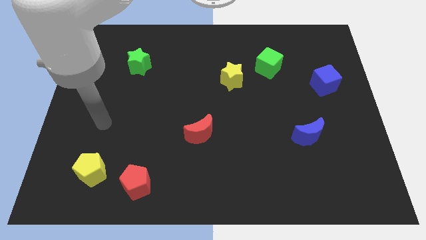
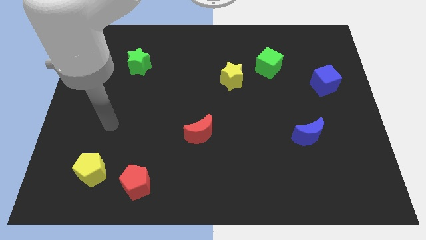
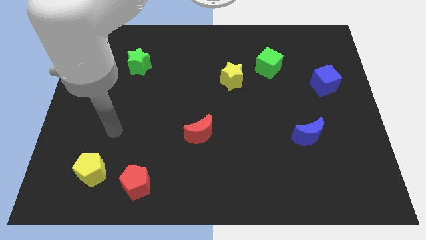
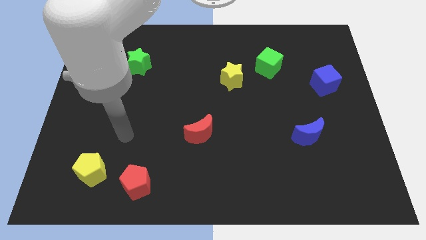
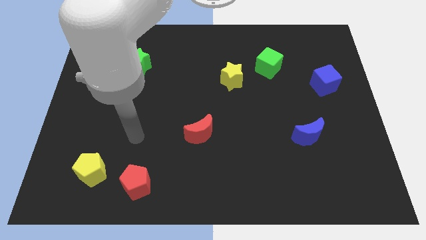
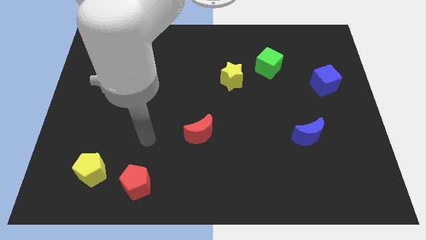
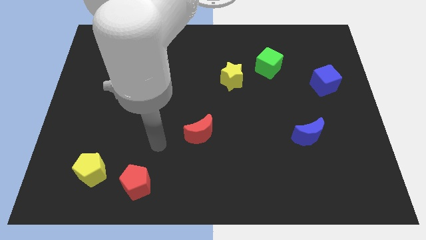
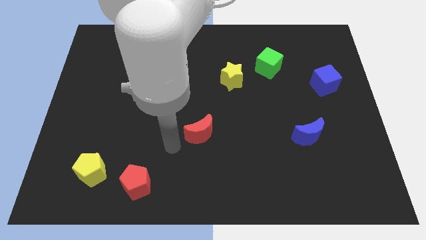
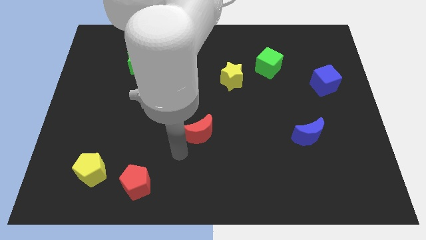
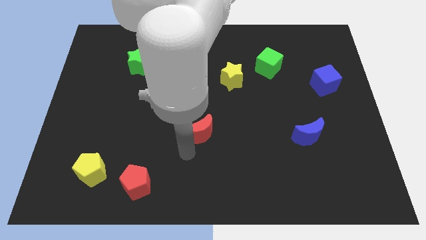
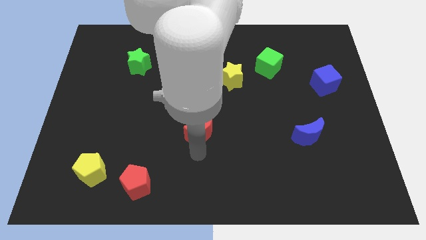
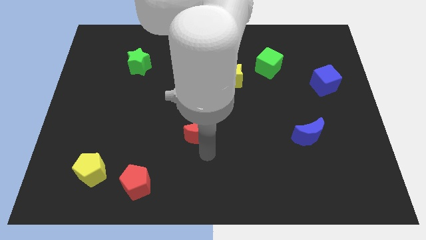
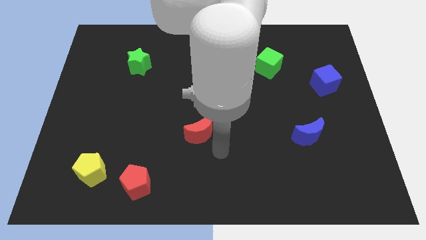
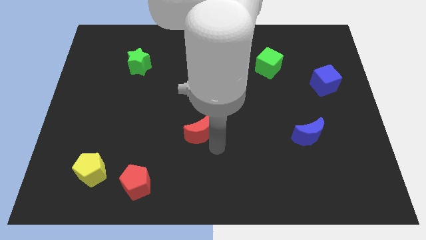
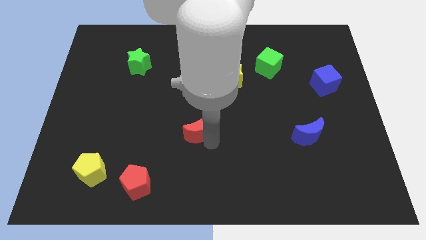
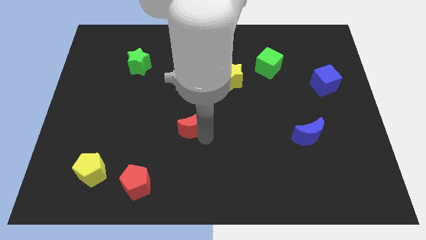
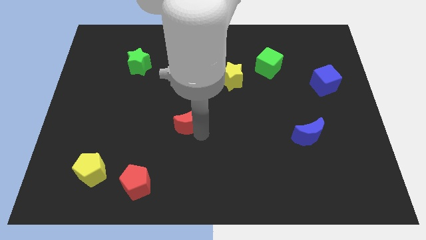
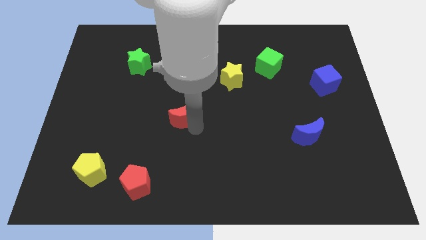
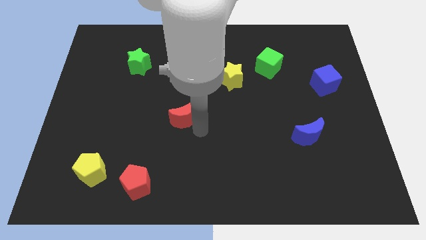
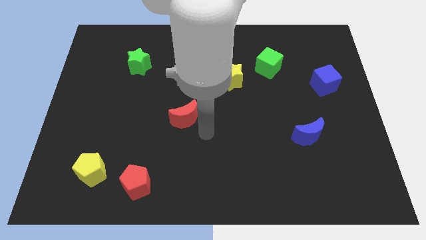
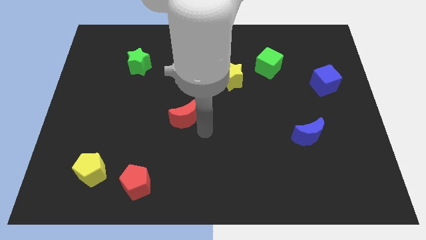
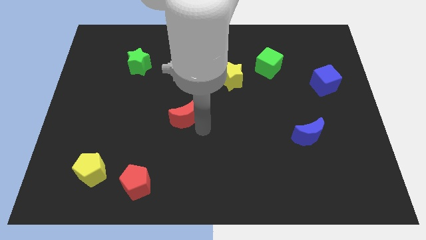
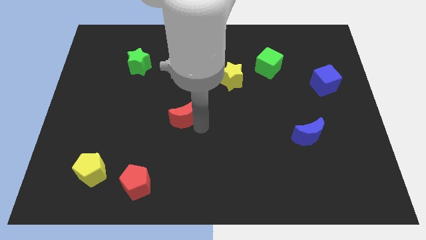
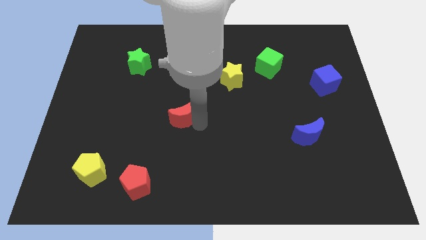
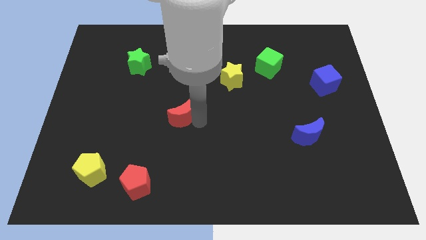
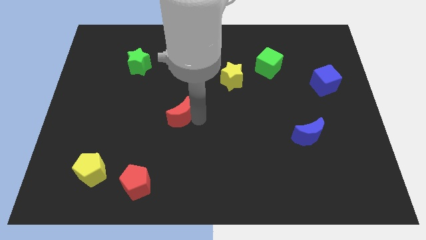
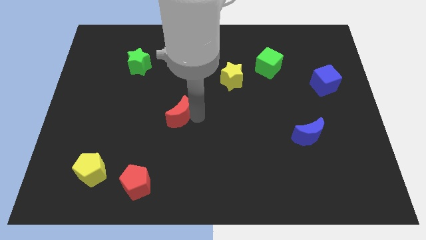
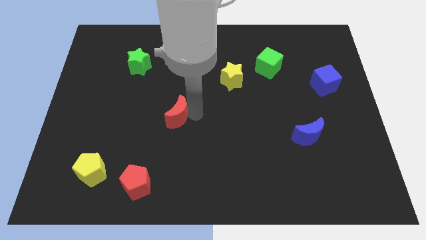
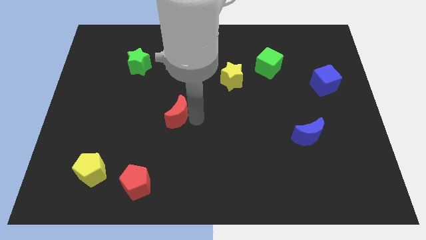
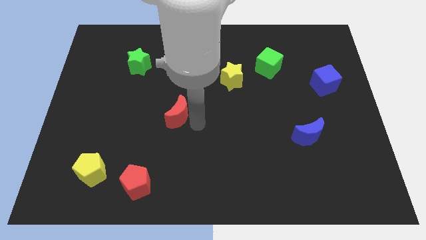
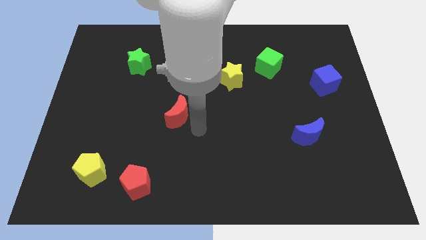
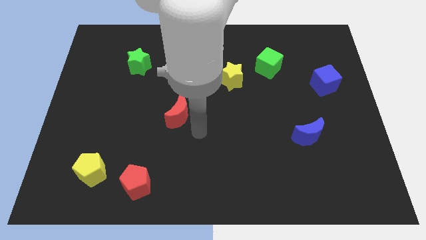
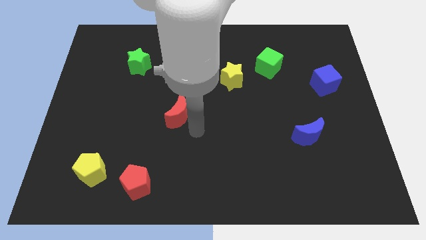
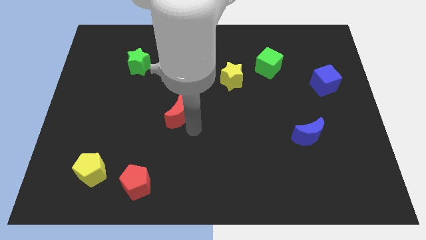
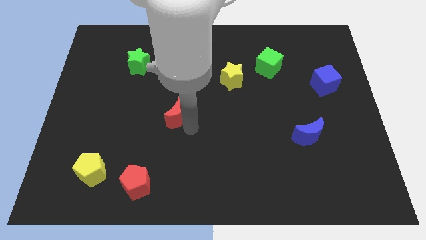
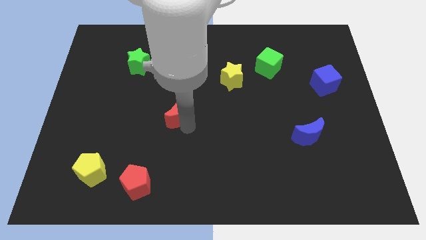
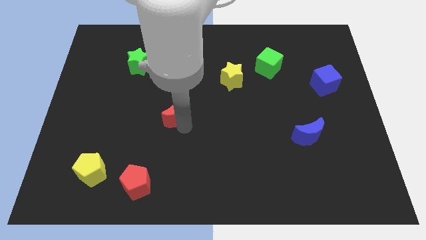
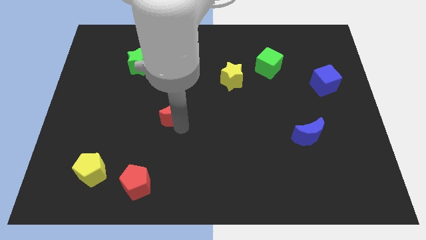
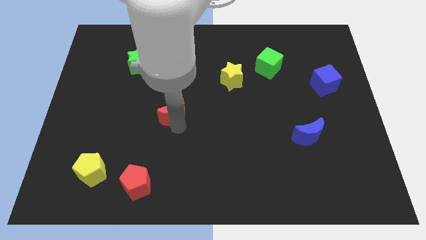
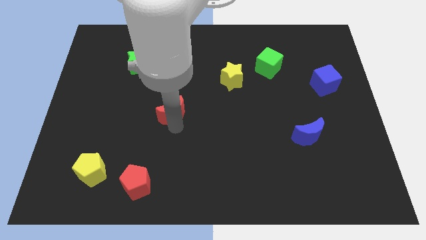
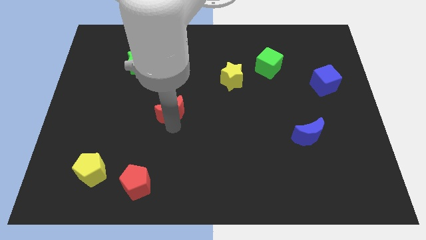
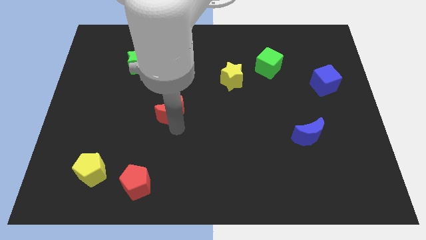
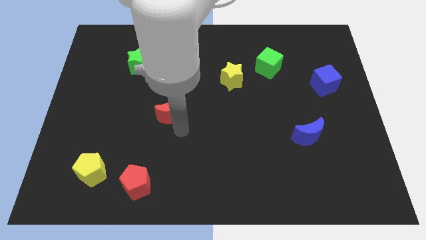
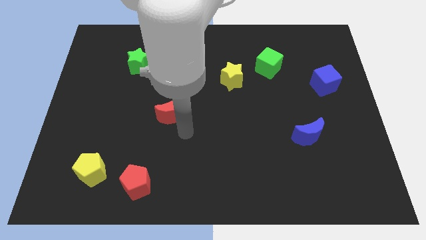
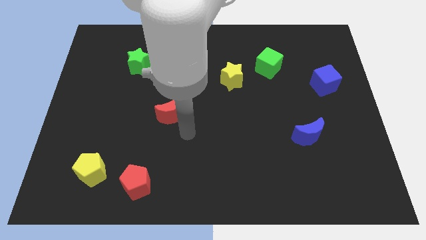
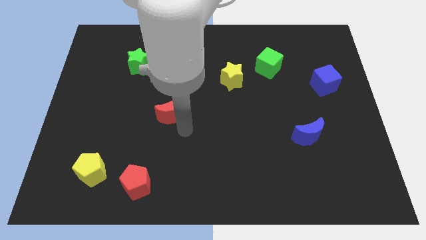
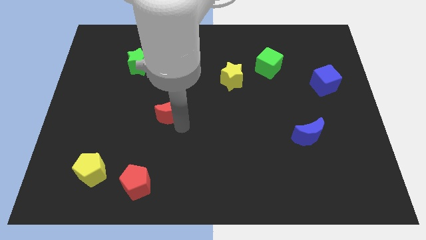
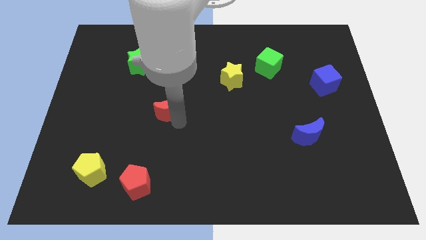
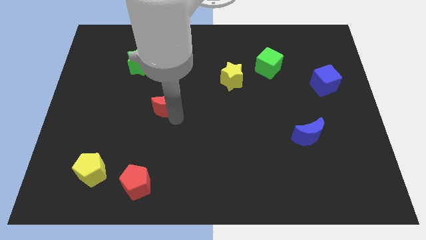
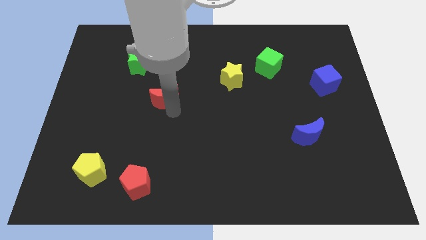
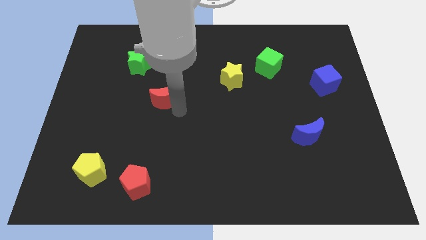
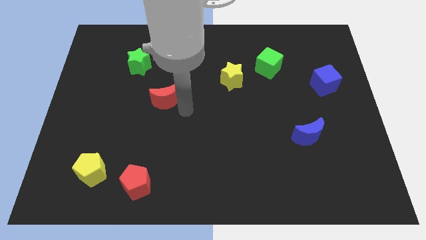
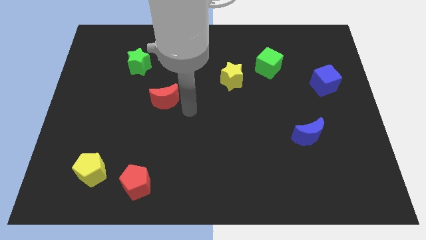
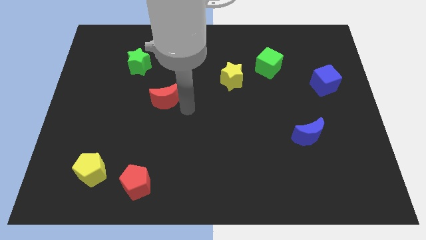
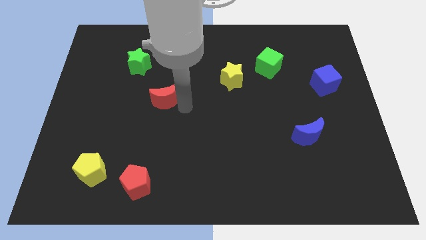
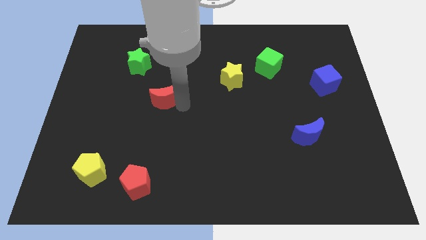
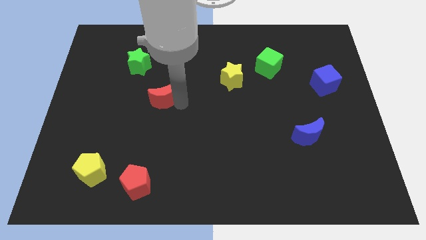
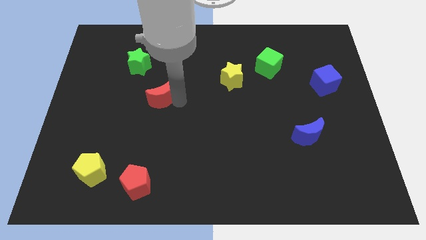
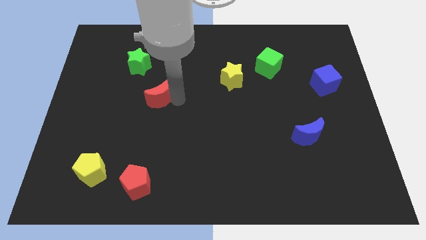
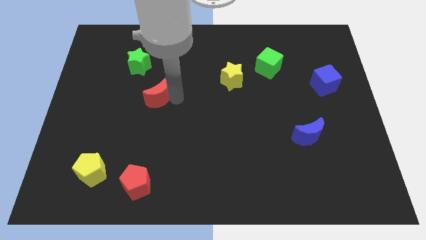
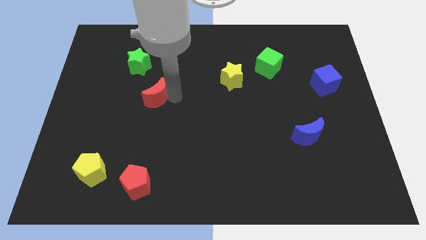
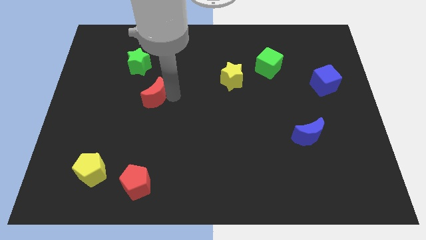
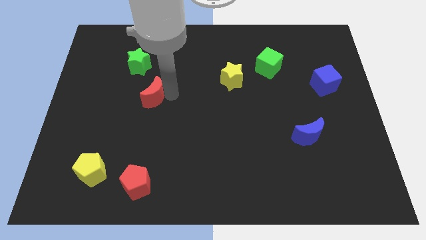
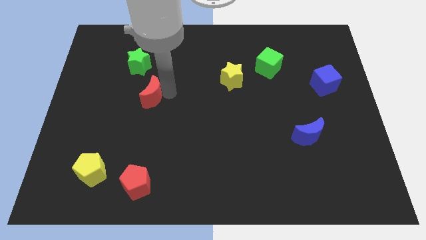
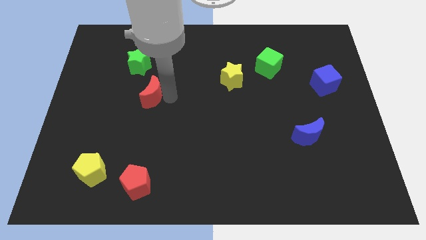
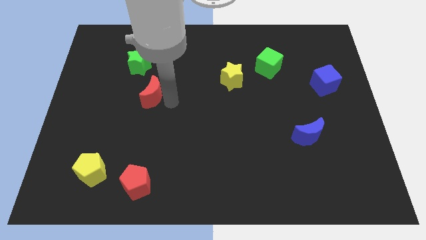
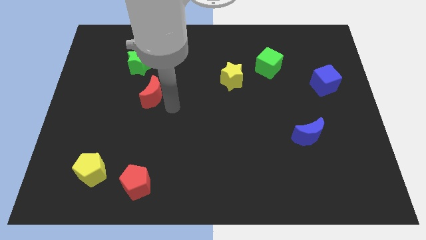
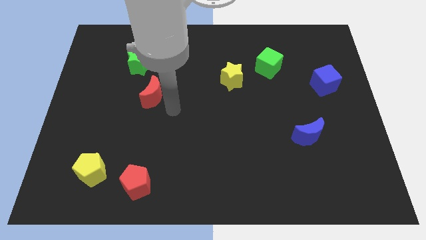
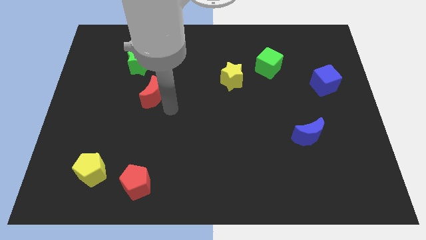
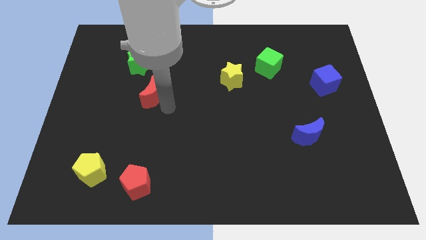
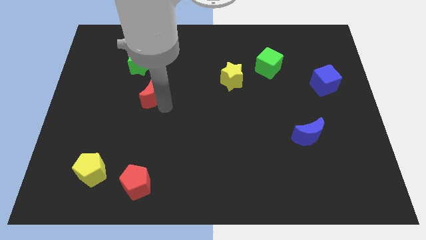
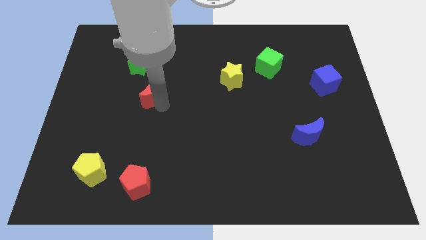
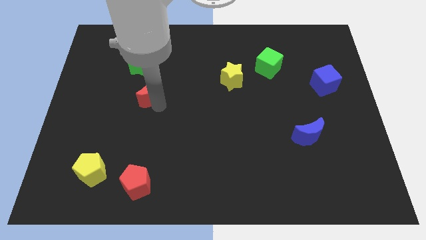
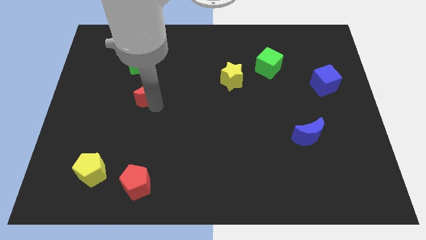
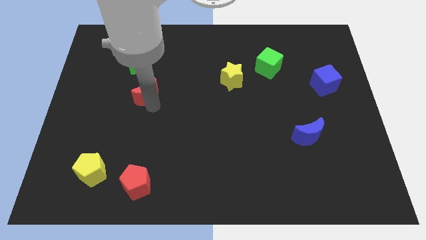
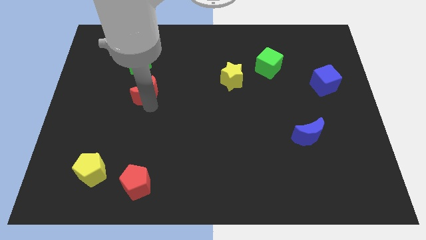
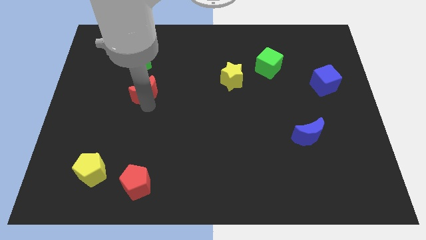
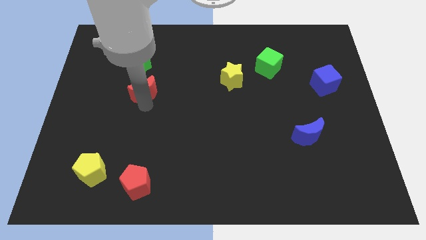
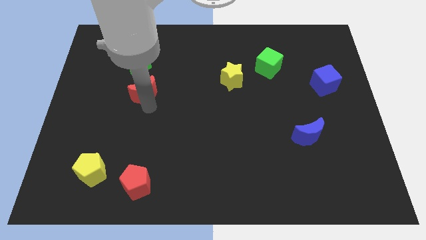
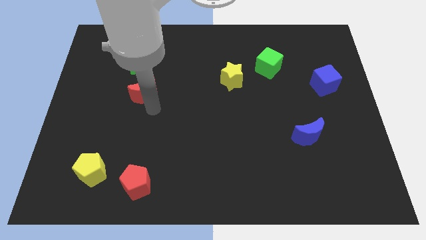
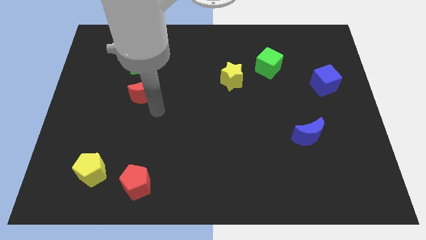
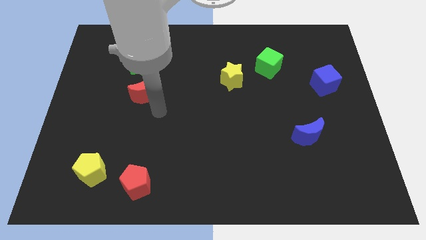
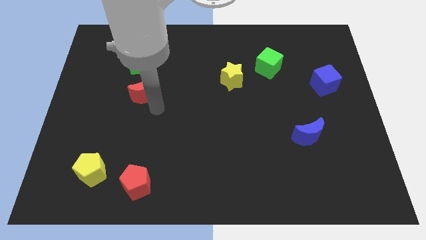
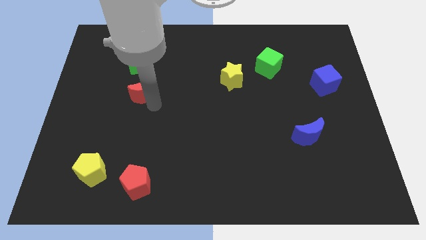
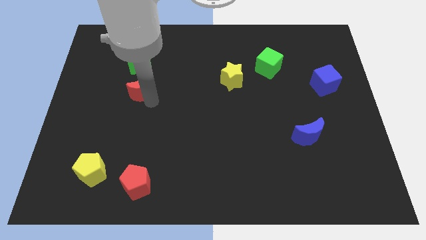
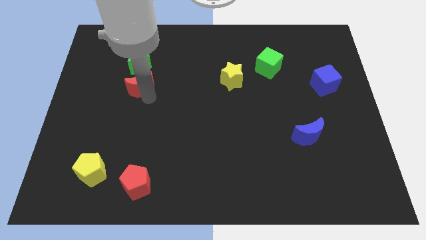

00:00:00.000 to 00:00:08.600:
push the red moon diagonally upwards and to the left
